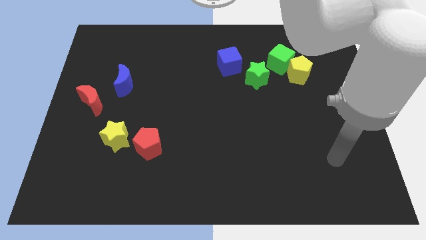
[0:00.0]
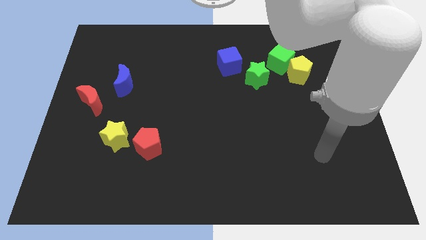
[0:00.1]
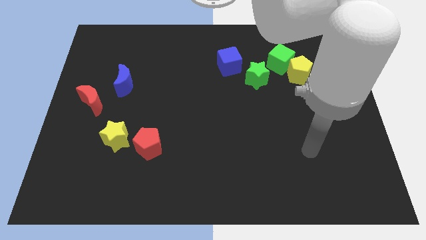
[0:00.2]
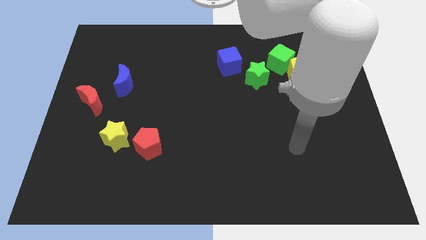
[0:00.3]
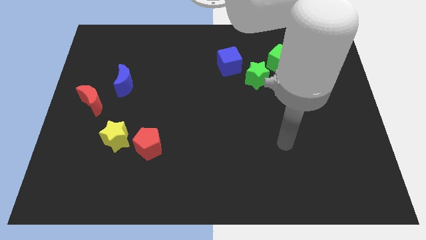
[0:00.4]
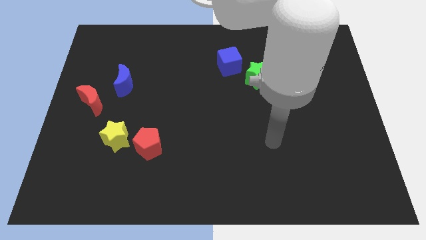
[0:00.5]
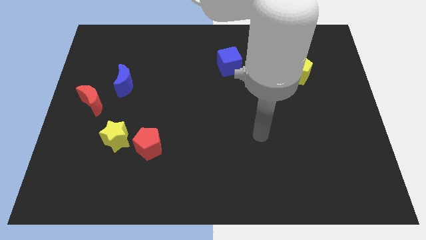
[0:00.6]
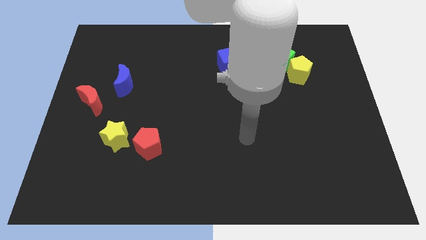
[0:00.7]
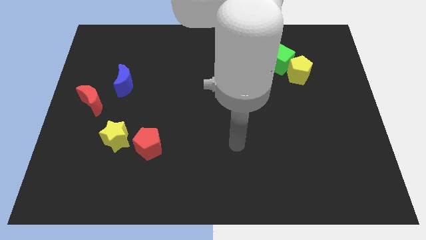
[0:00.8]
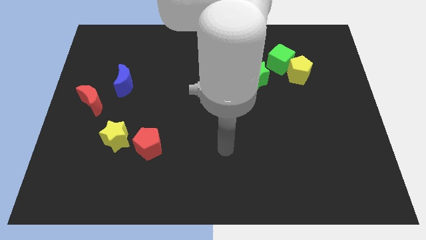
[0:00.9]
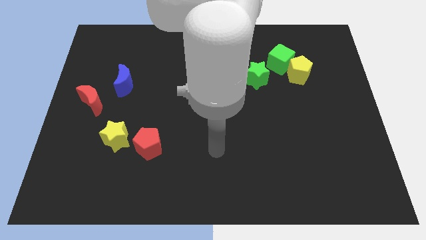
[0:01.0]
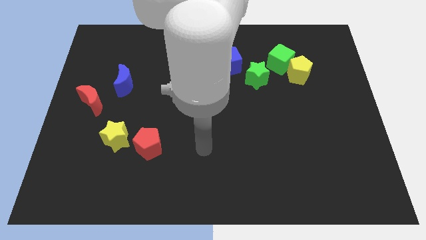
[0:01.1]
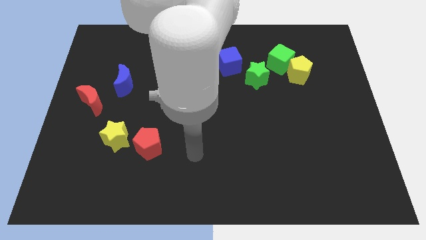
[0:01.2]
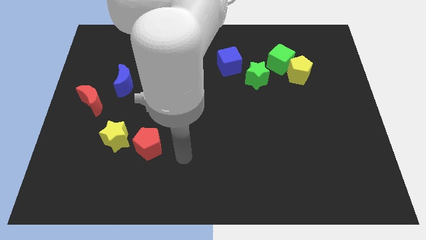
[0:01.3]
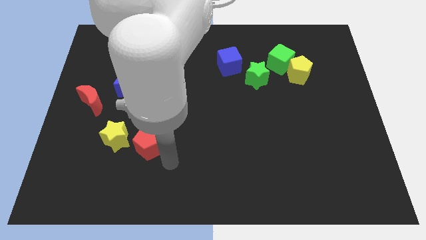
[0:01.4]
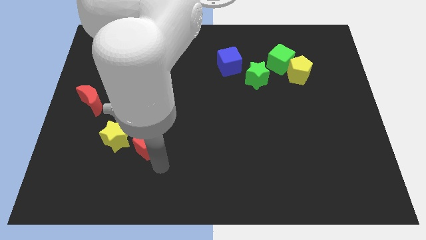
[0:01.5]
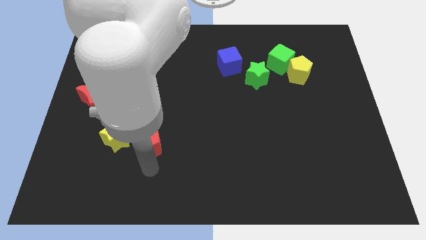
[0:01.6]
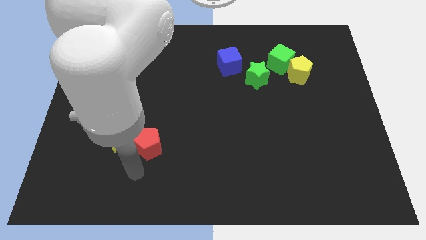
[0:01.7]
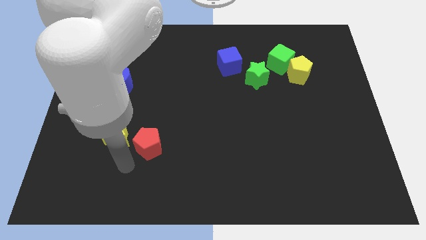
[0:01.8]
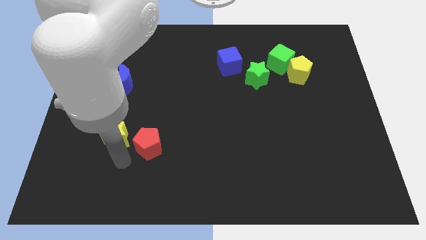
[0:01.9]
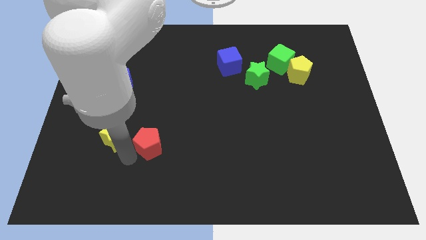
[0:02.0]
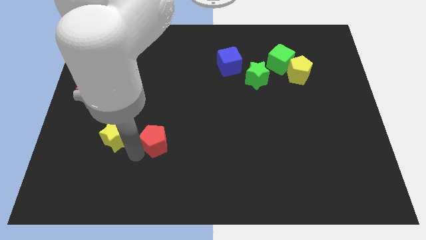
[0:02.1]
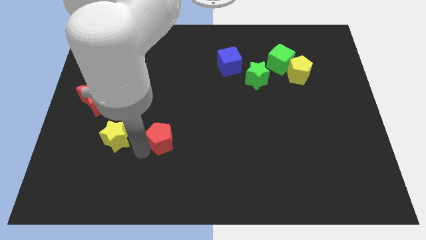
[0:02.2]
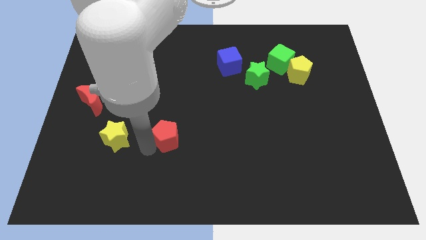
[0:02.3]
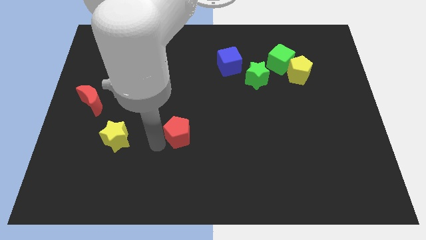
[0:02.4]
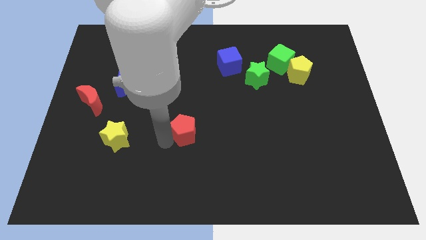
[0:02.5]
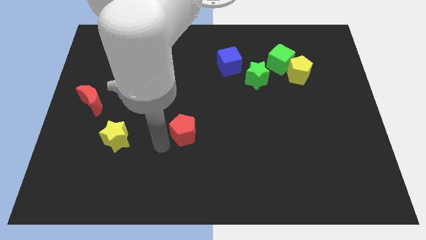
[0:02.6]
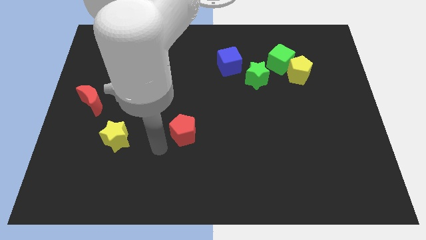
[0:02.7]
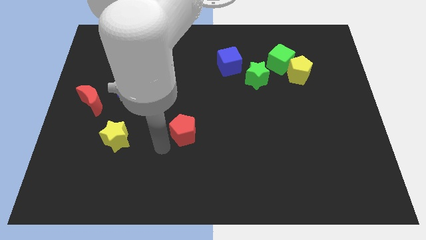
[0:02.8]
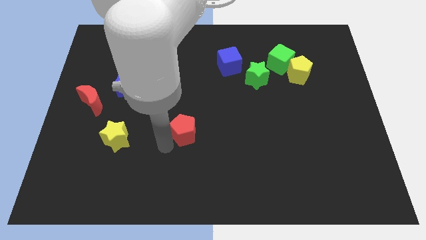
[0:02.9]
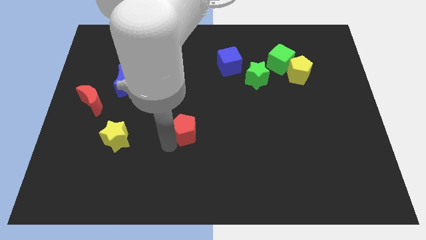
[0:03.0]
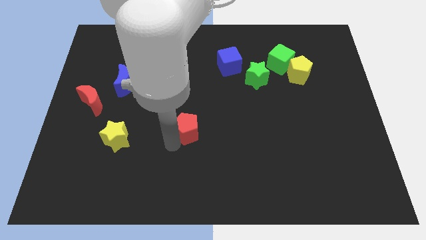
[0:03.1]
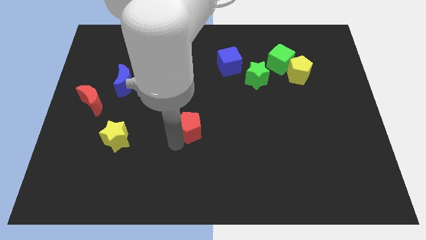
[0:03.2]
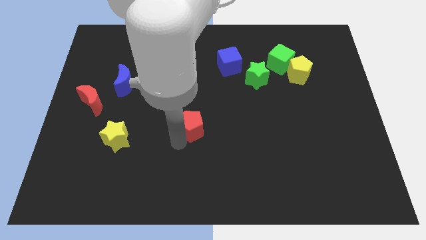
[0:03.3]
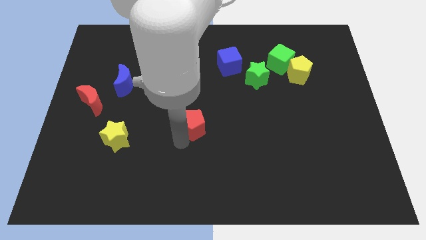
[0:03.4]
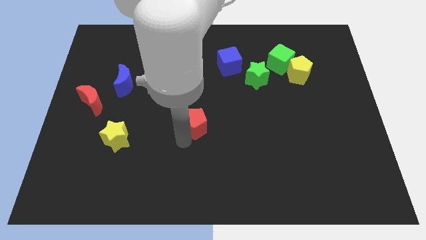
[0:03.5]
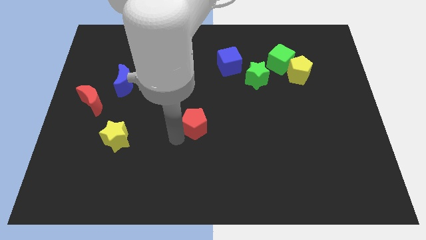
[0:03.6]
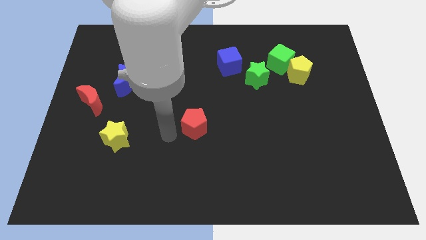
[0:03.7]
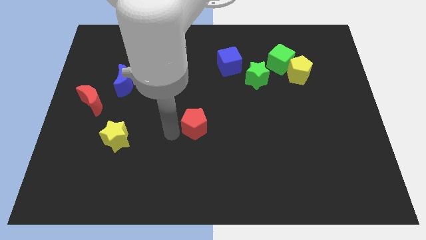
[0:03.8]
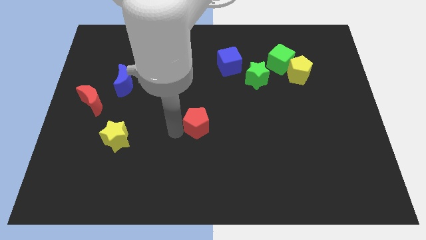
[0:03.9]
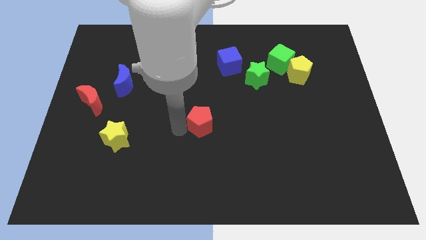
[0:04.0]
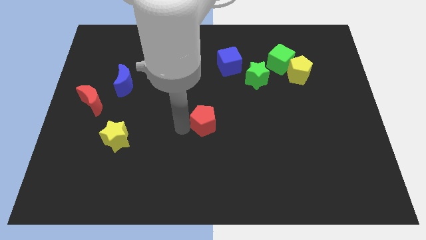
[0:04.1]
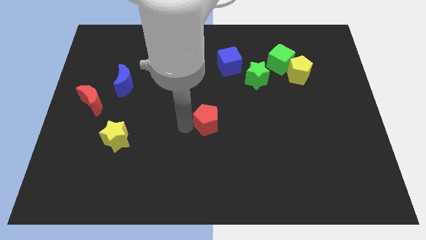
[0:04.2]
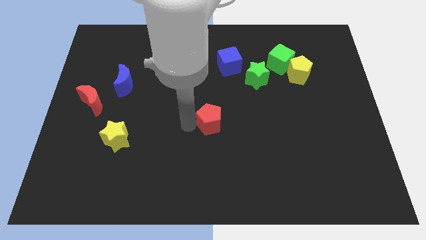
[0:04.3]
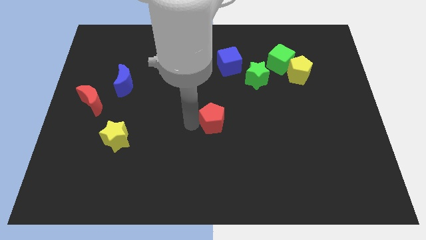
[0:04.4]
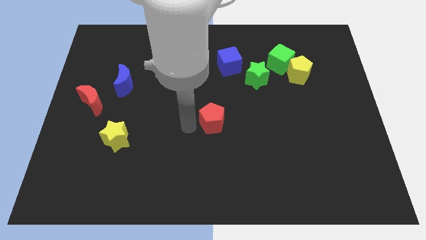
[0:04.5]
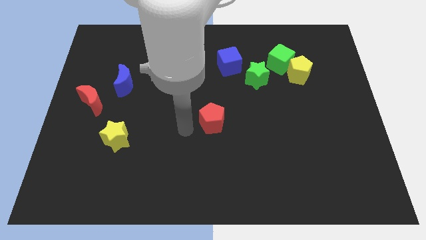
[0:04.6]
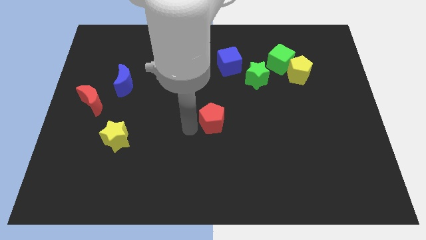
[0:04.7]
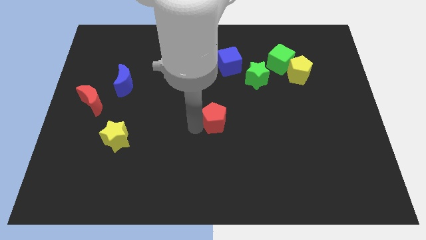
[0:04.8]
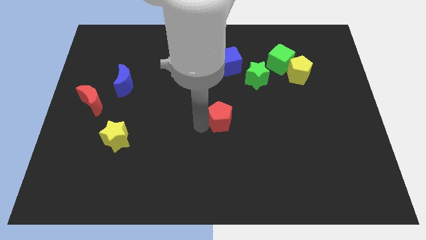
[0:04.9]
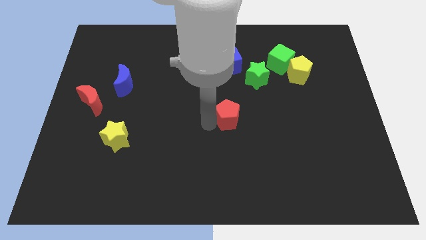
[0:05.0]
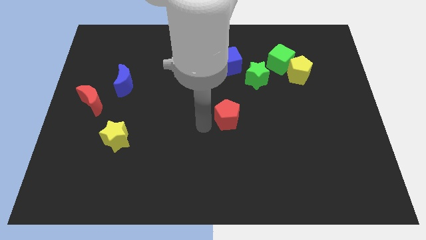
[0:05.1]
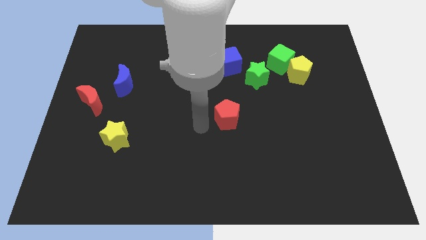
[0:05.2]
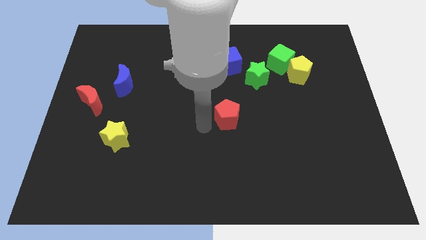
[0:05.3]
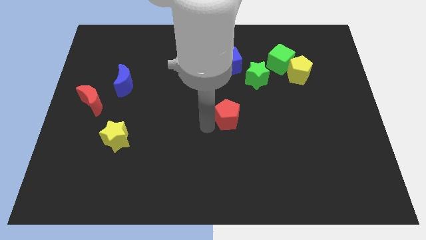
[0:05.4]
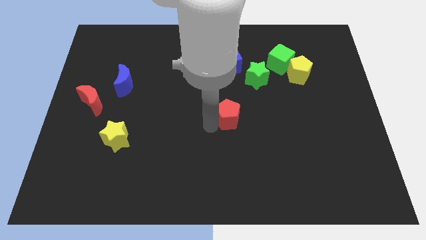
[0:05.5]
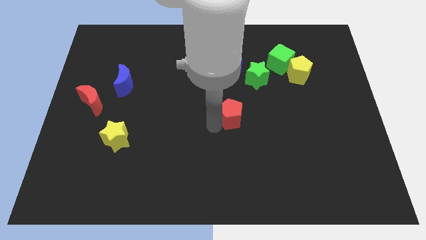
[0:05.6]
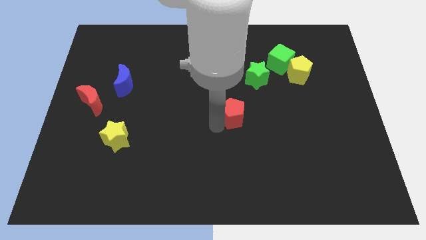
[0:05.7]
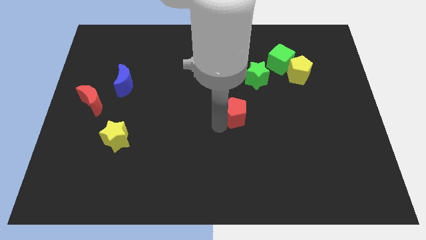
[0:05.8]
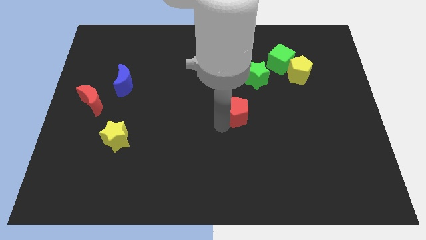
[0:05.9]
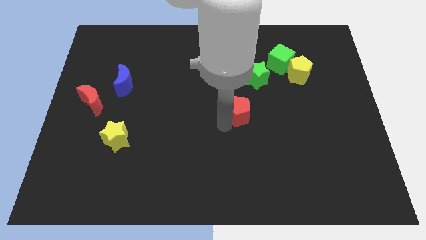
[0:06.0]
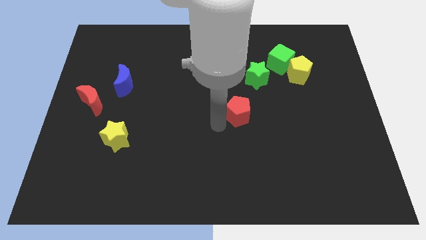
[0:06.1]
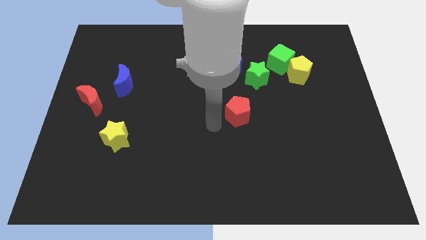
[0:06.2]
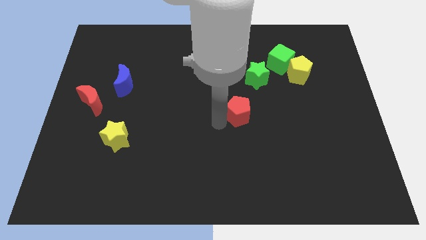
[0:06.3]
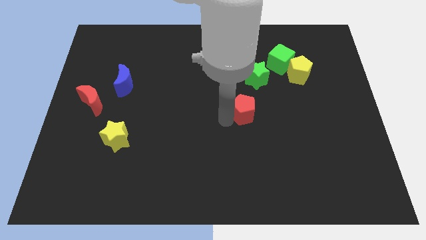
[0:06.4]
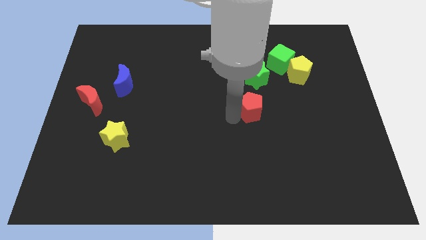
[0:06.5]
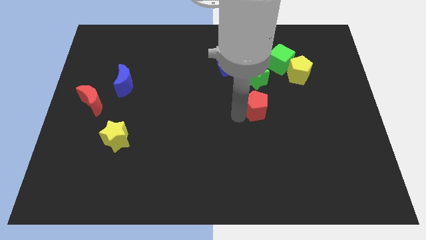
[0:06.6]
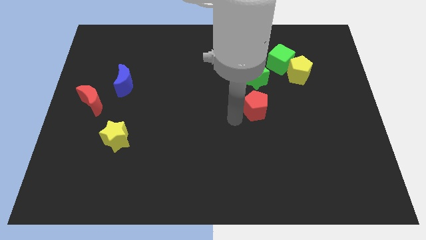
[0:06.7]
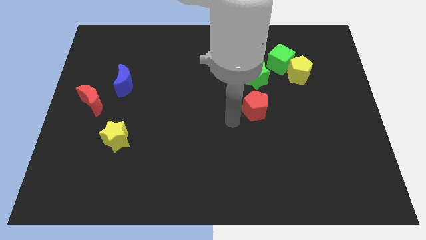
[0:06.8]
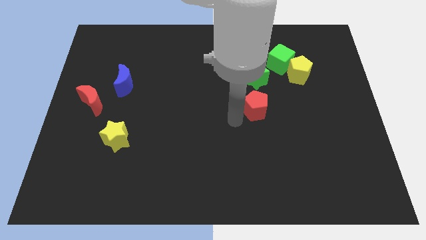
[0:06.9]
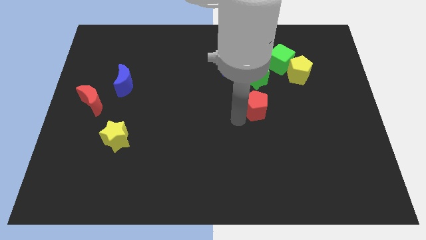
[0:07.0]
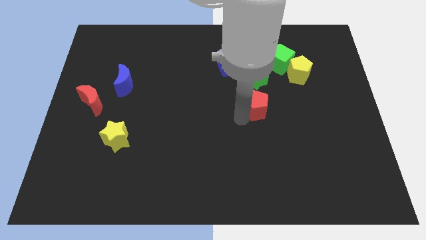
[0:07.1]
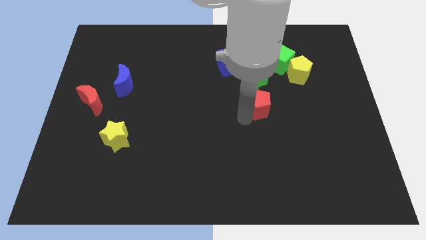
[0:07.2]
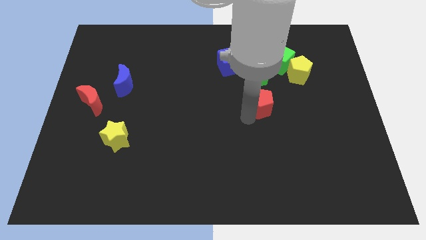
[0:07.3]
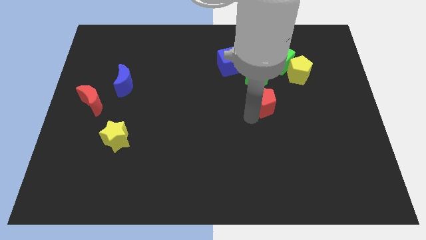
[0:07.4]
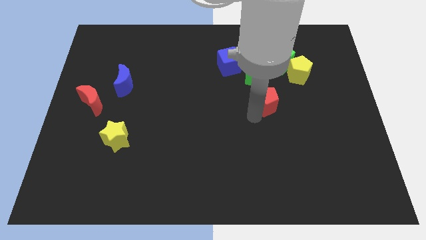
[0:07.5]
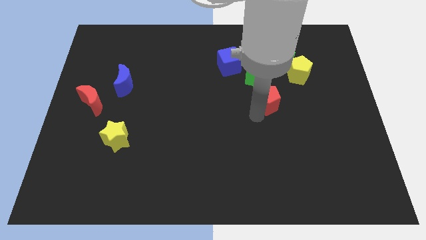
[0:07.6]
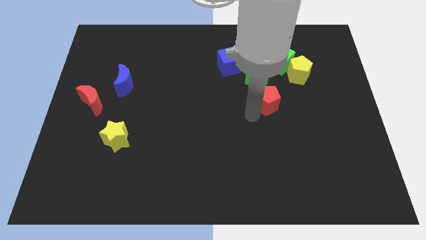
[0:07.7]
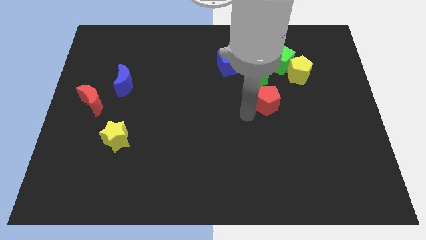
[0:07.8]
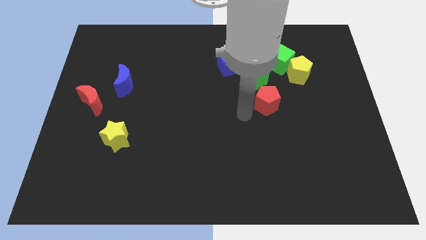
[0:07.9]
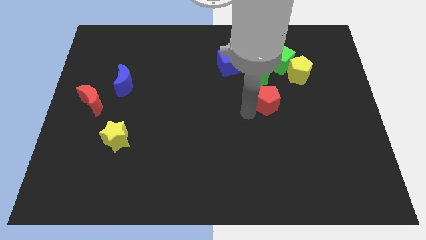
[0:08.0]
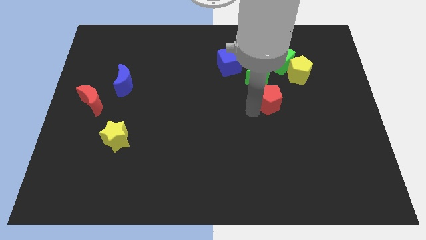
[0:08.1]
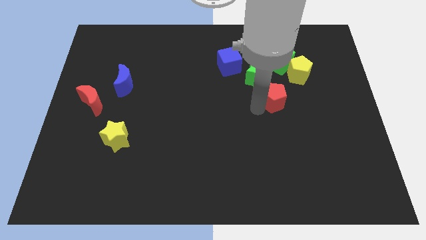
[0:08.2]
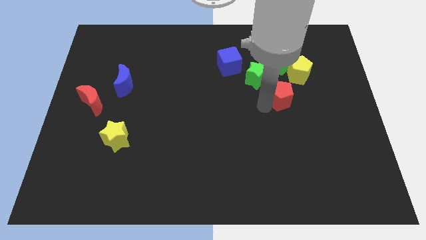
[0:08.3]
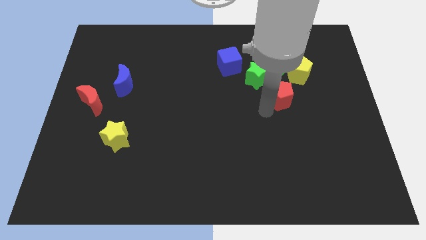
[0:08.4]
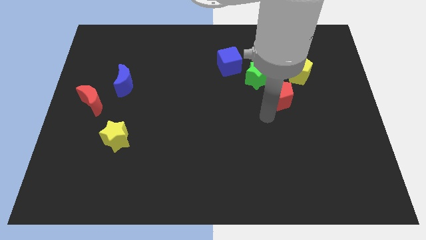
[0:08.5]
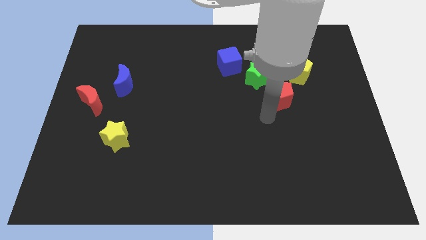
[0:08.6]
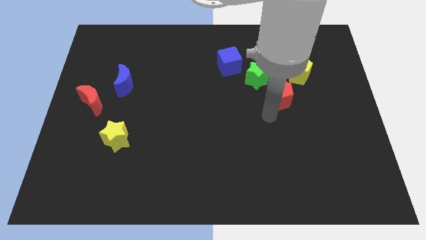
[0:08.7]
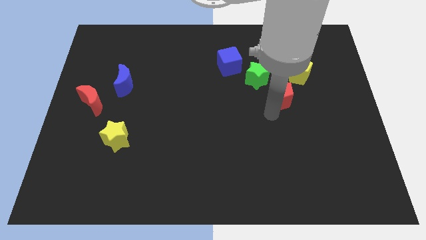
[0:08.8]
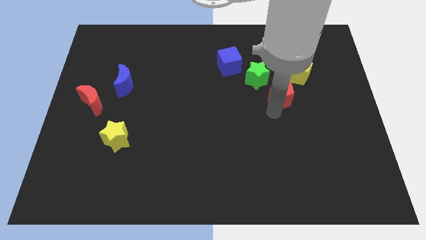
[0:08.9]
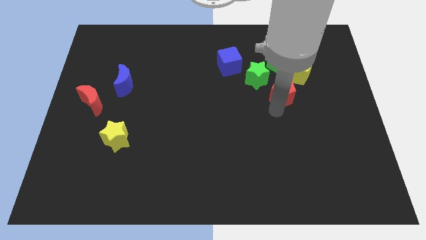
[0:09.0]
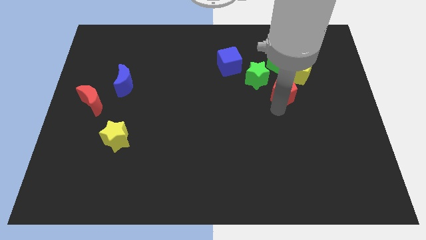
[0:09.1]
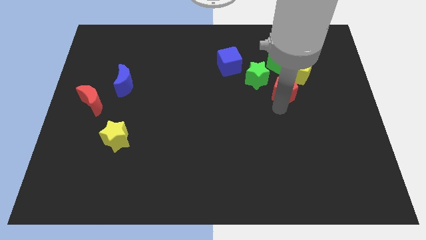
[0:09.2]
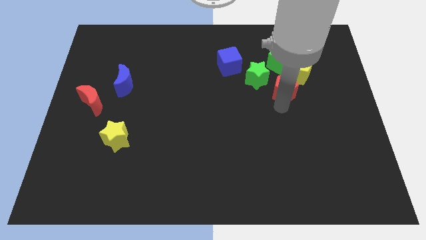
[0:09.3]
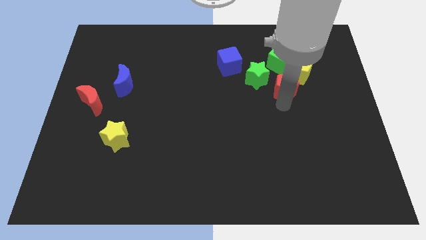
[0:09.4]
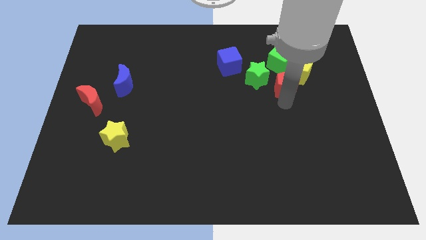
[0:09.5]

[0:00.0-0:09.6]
put the red pentagon towards the yellow pentagon
